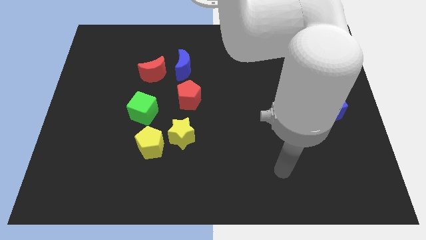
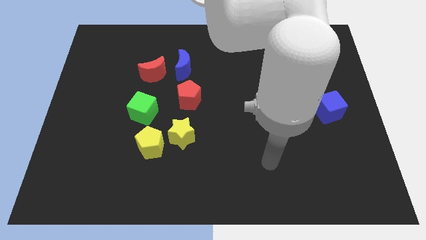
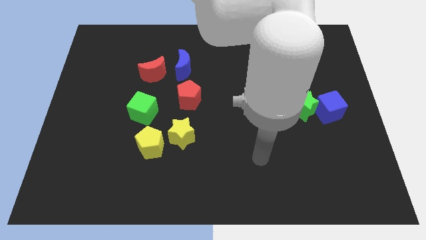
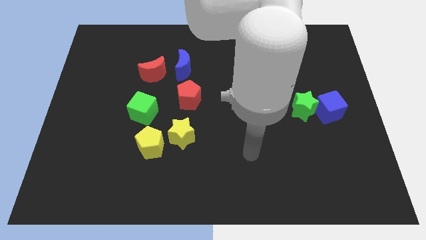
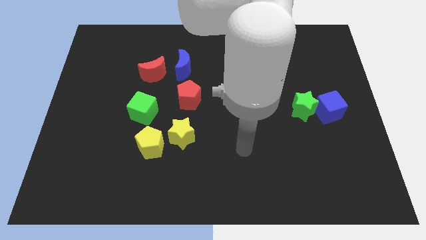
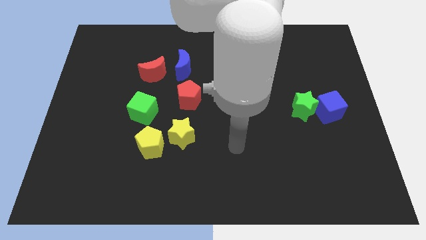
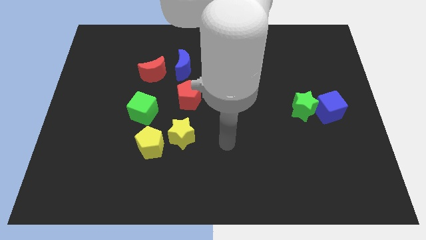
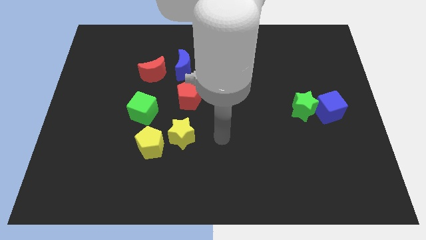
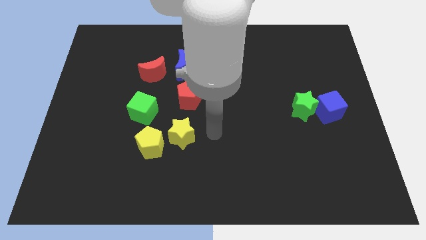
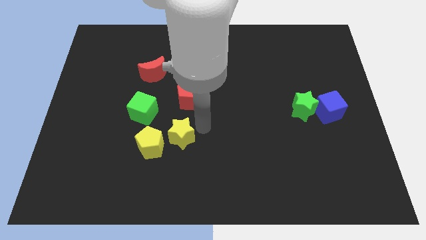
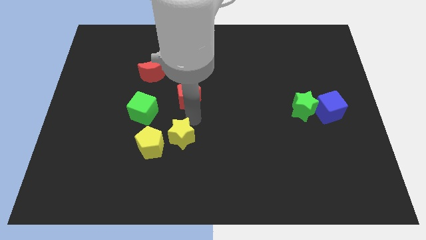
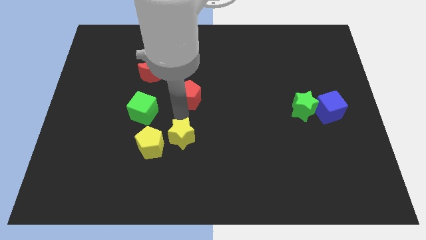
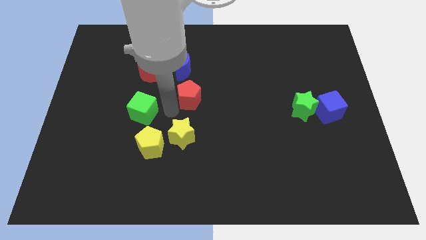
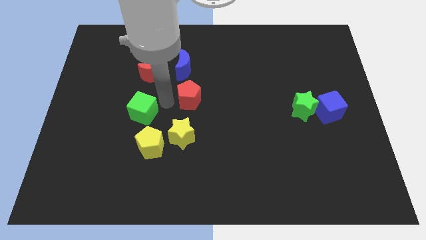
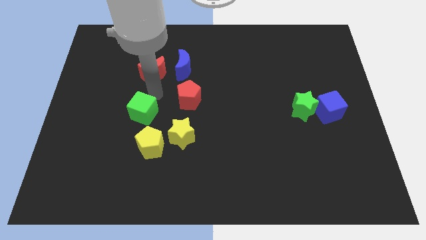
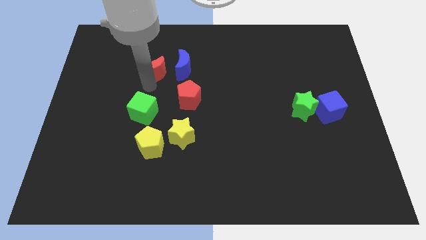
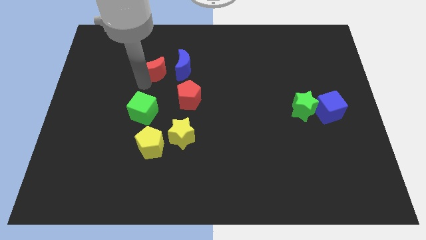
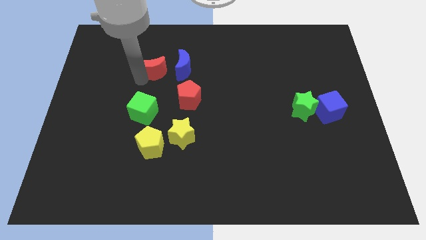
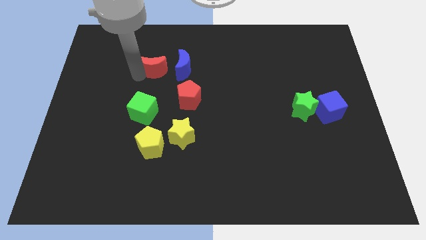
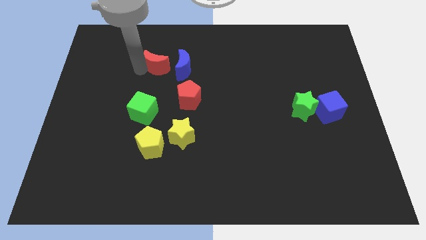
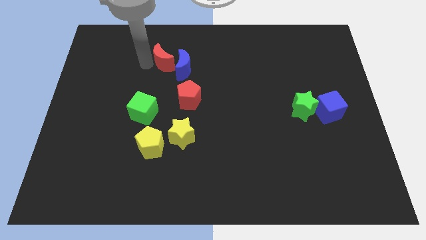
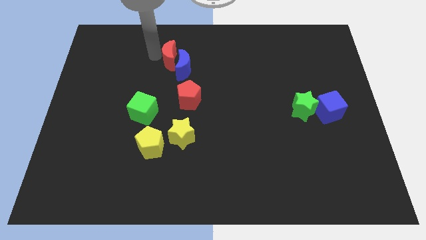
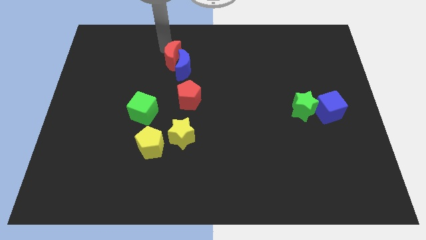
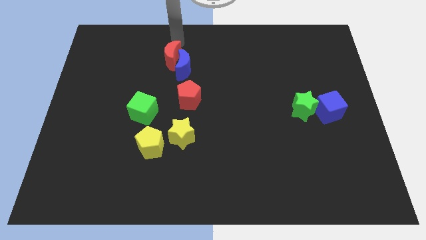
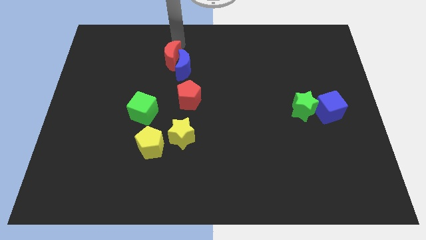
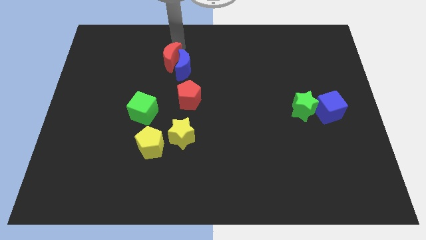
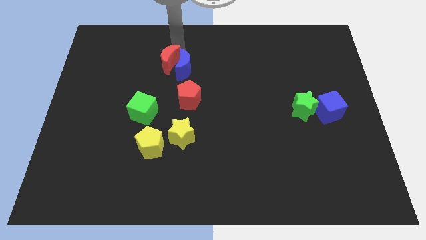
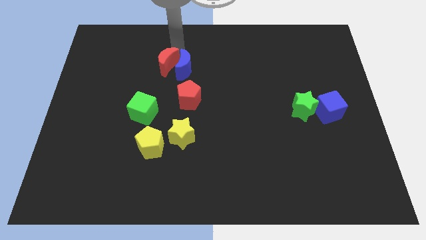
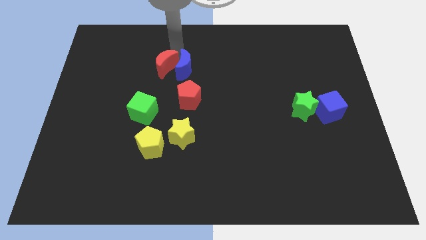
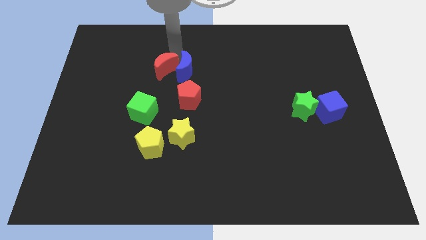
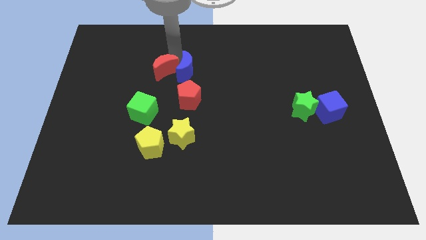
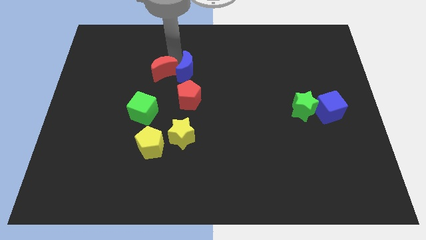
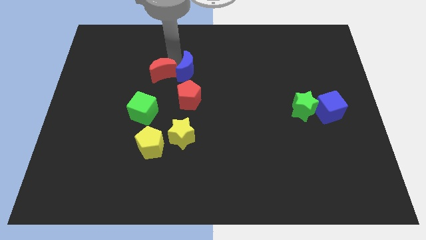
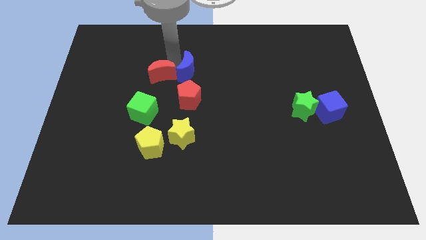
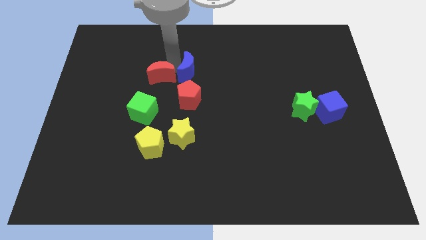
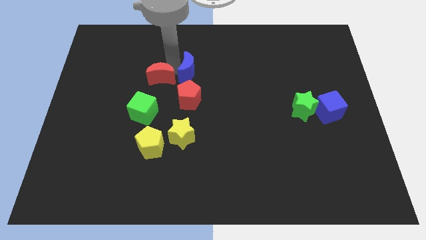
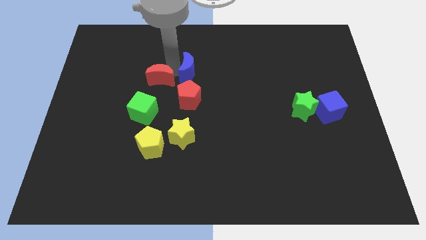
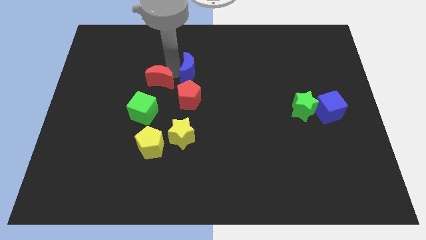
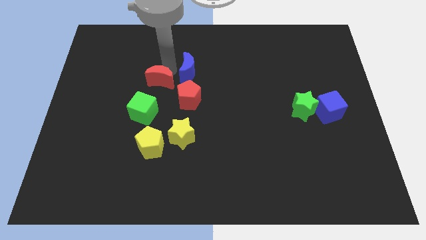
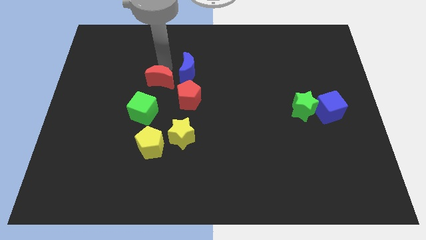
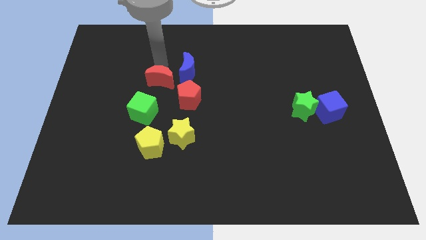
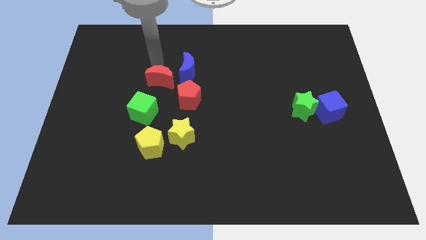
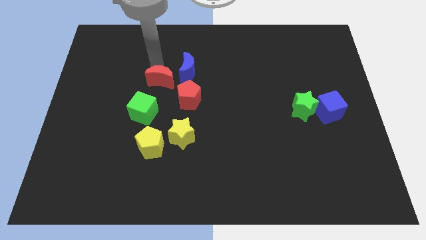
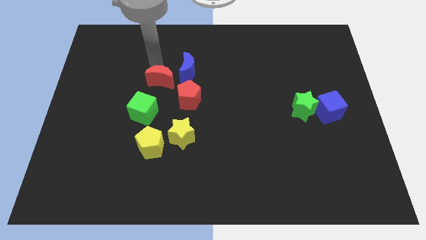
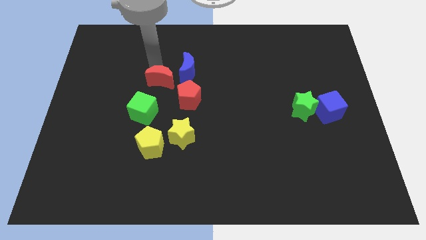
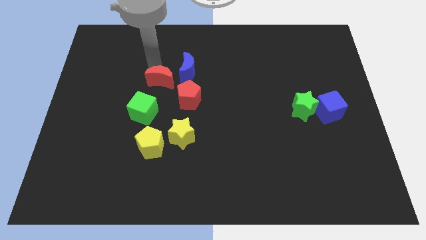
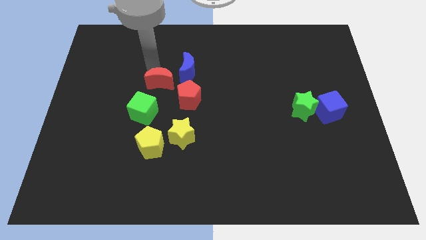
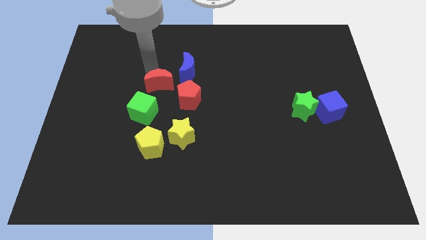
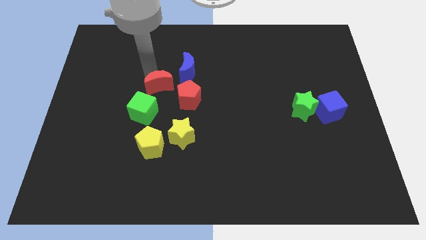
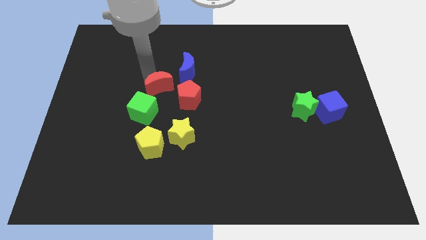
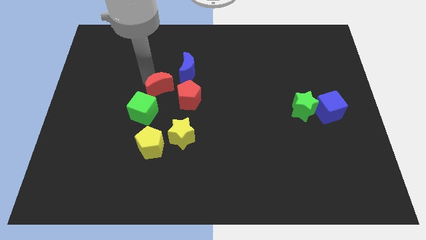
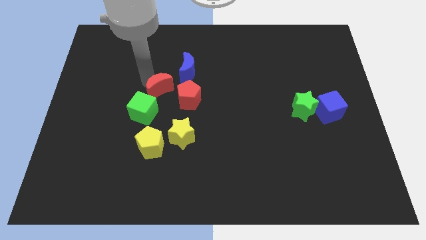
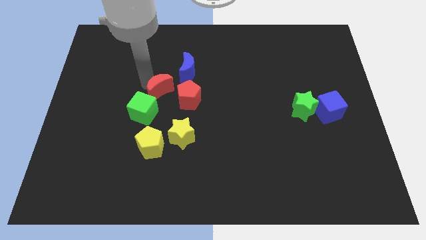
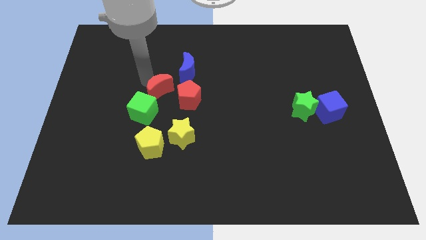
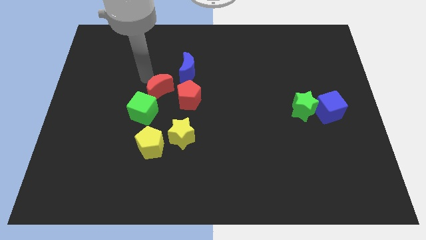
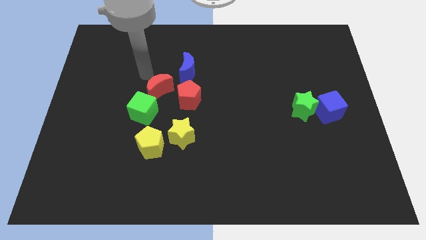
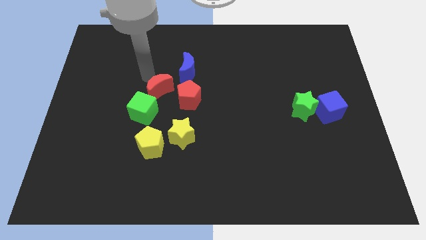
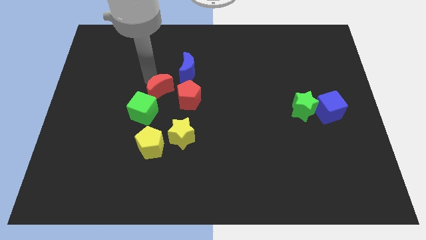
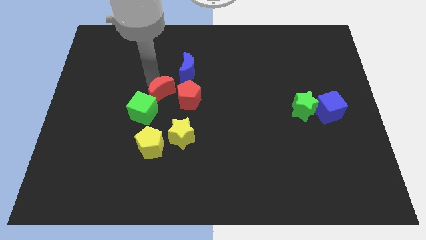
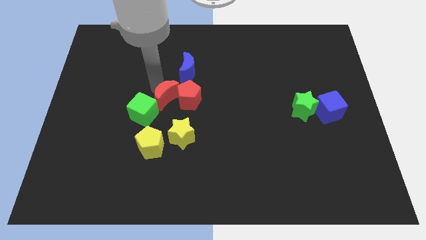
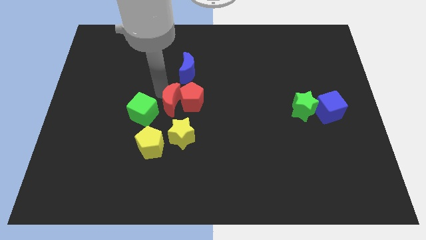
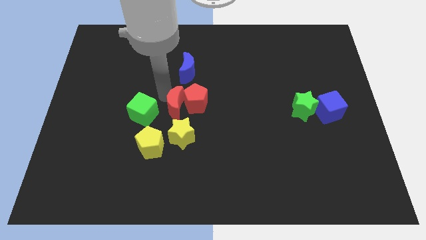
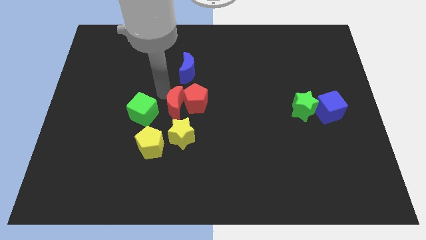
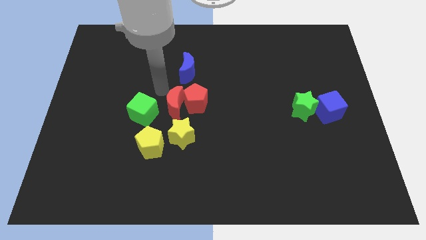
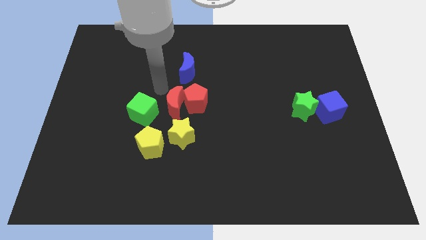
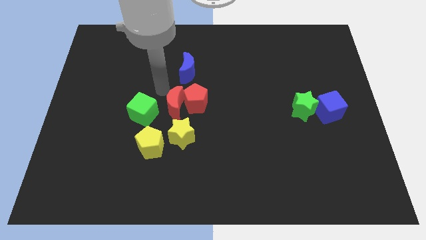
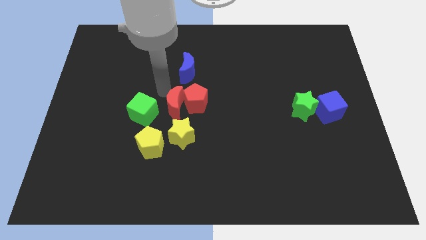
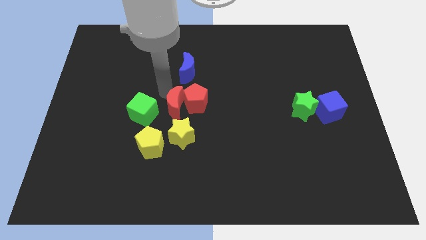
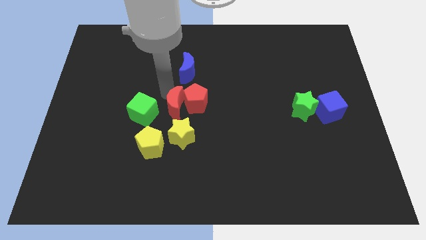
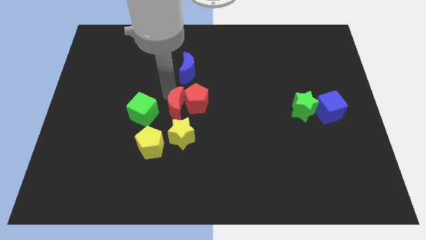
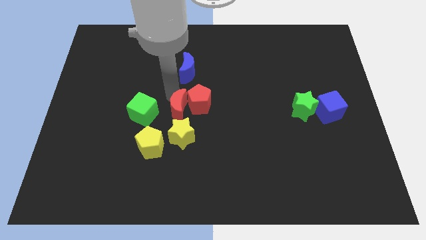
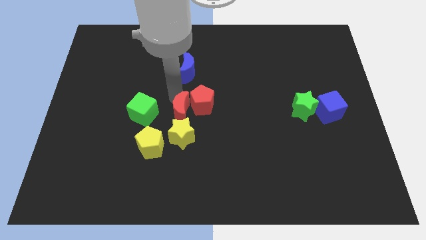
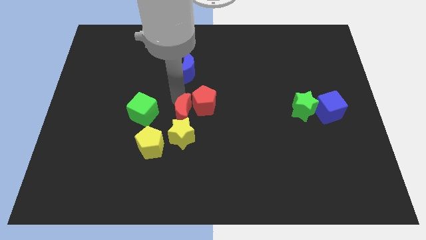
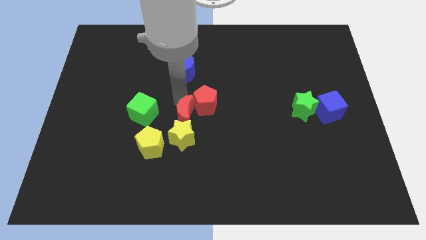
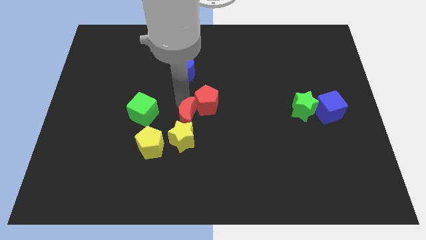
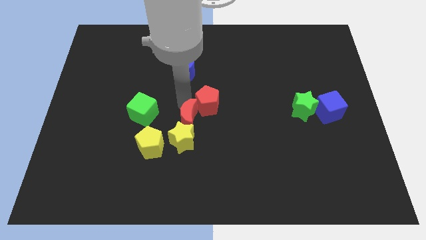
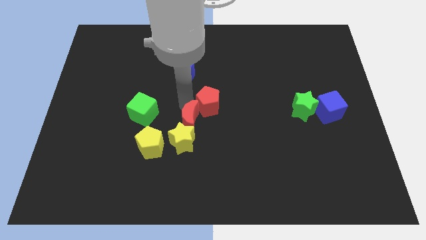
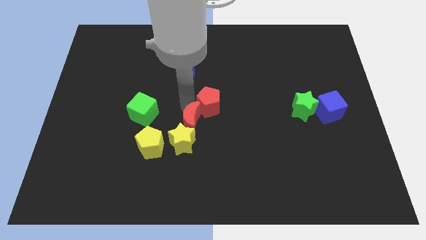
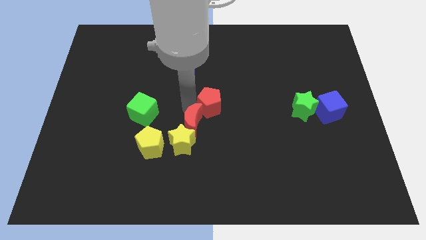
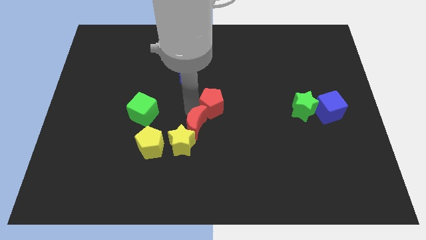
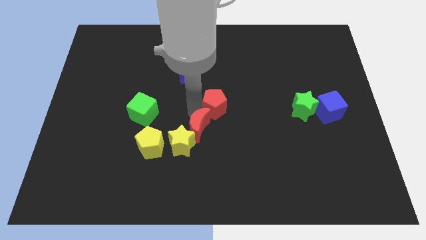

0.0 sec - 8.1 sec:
put the red moon right of the yellow star
